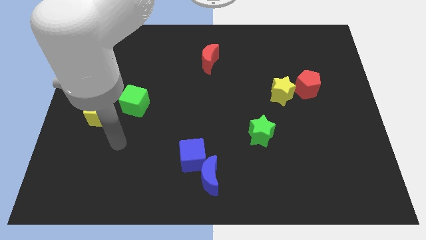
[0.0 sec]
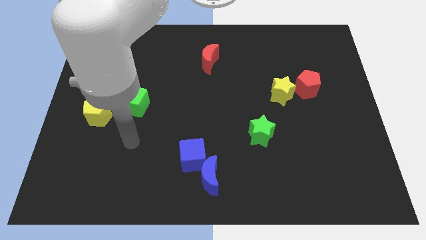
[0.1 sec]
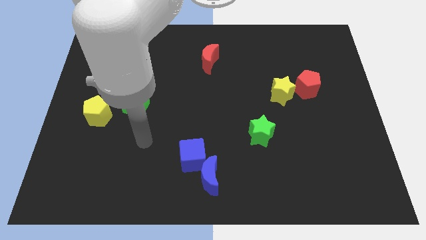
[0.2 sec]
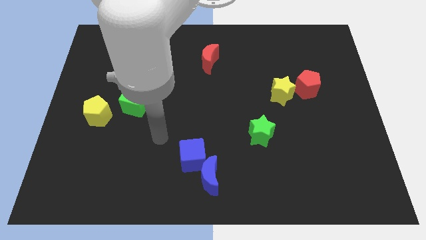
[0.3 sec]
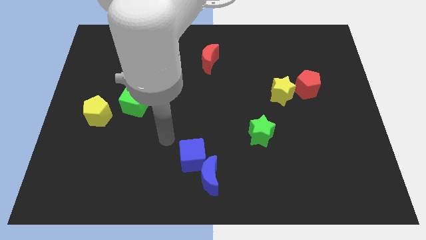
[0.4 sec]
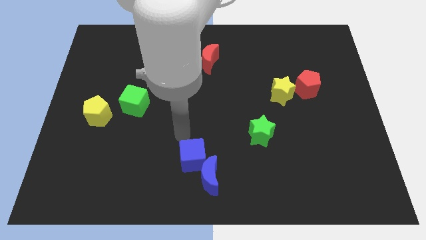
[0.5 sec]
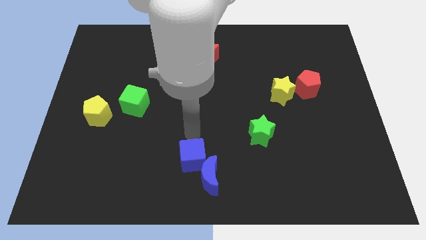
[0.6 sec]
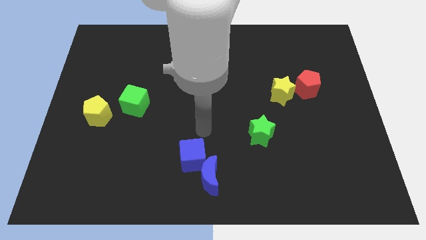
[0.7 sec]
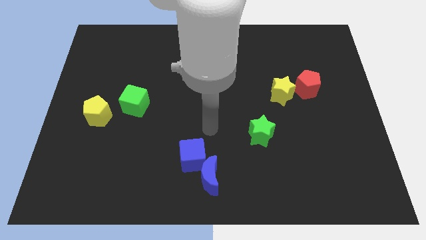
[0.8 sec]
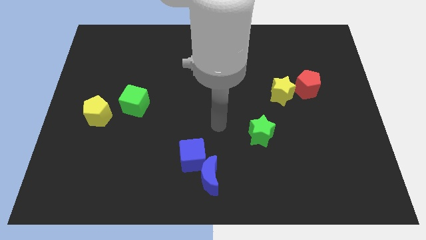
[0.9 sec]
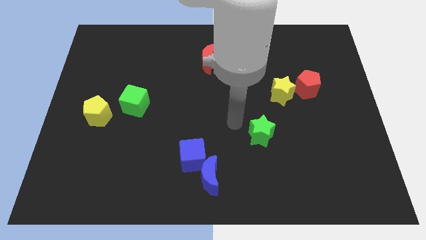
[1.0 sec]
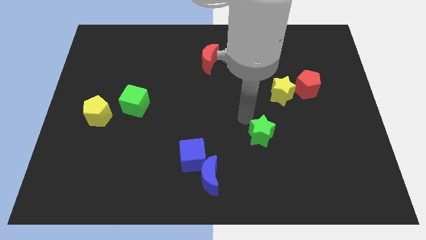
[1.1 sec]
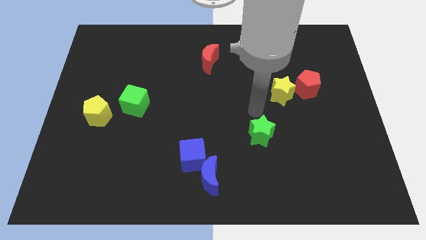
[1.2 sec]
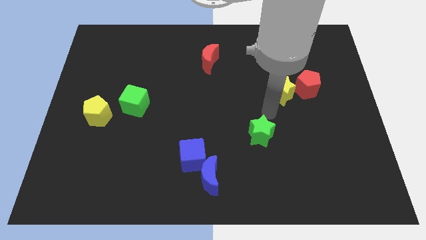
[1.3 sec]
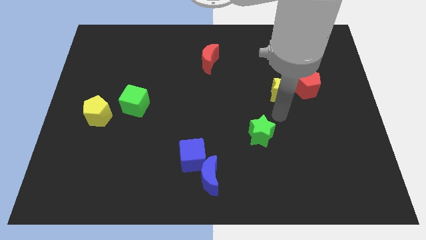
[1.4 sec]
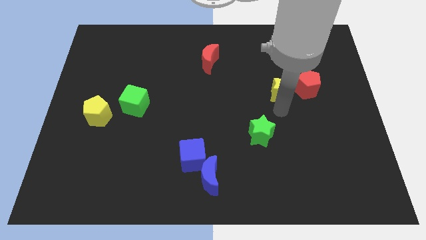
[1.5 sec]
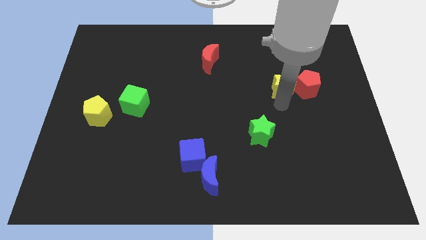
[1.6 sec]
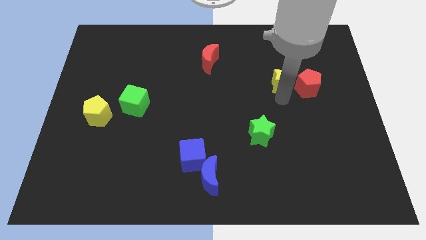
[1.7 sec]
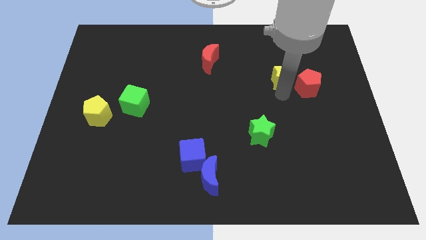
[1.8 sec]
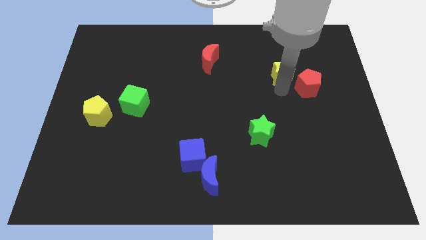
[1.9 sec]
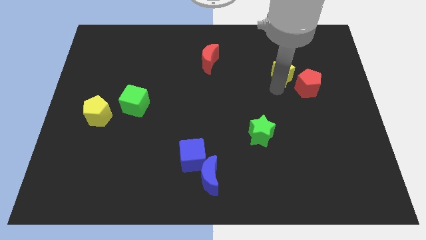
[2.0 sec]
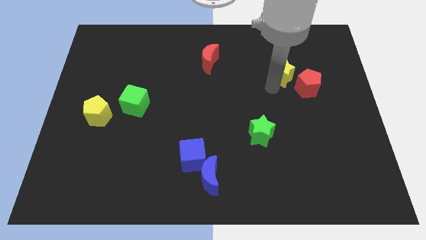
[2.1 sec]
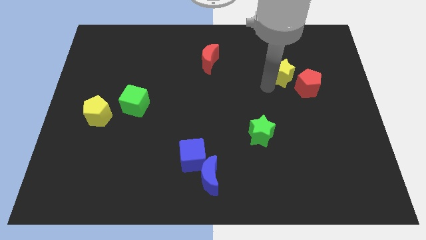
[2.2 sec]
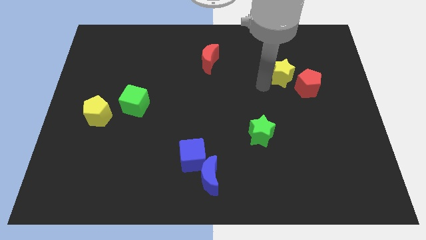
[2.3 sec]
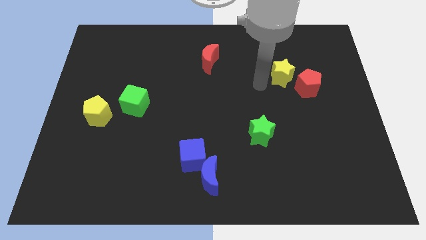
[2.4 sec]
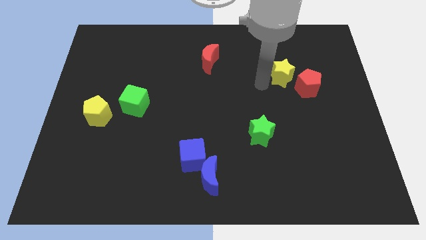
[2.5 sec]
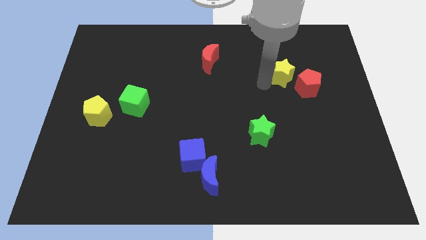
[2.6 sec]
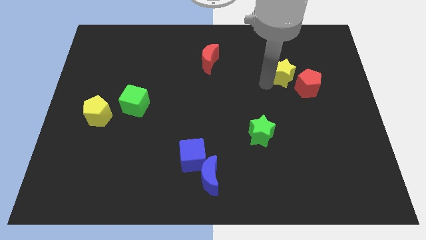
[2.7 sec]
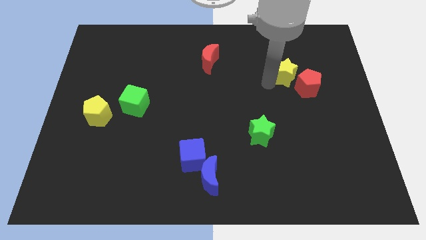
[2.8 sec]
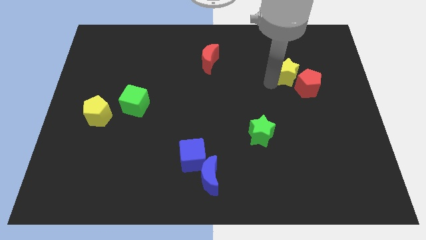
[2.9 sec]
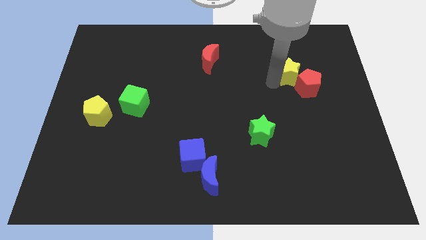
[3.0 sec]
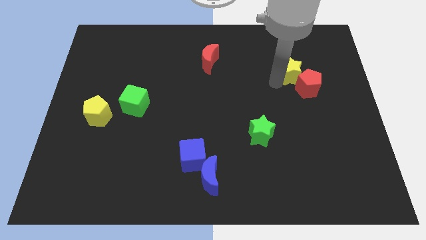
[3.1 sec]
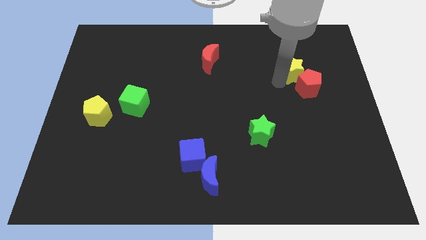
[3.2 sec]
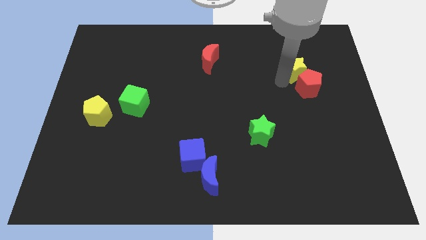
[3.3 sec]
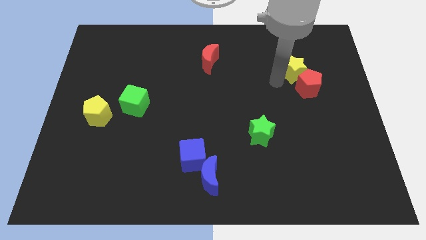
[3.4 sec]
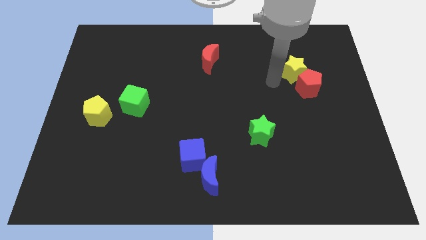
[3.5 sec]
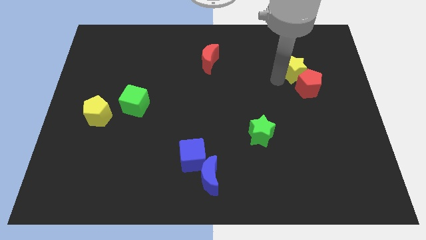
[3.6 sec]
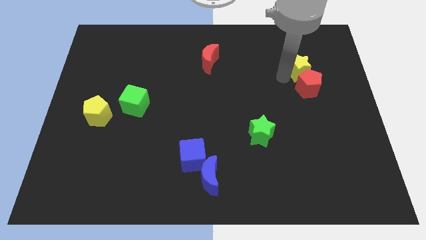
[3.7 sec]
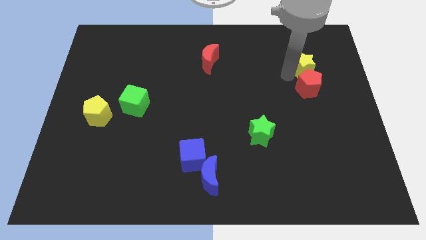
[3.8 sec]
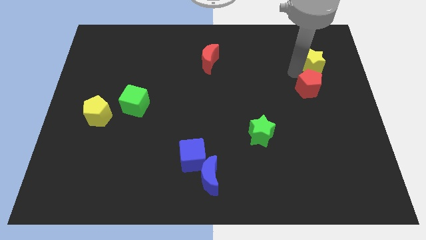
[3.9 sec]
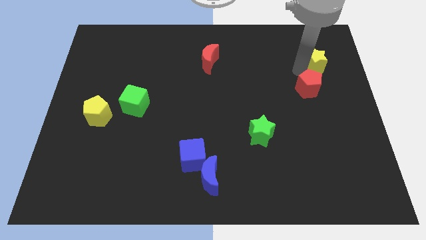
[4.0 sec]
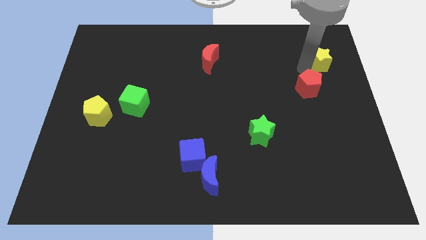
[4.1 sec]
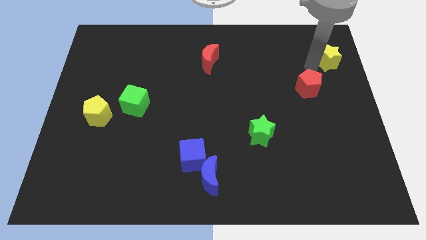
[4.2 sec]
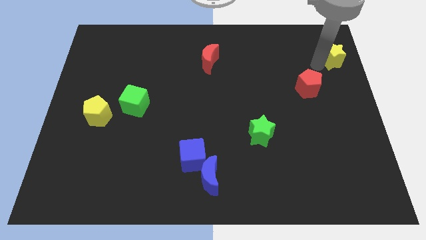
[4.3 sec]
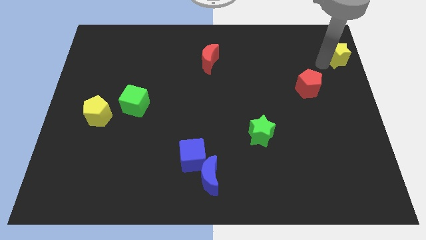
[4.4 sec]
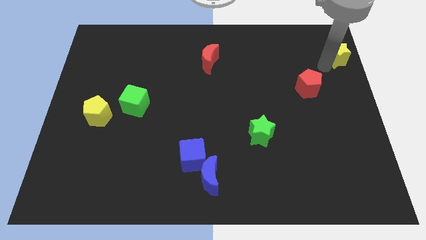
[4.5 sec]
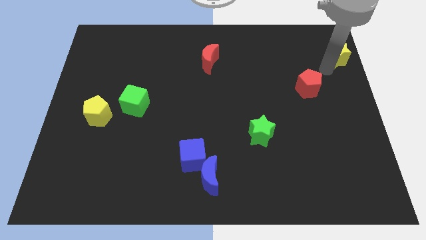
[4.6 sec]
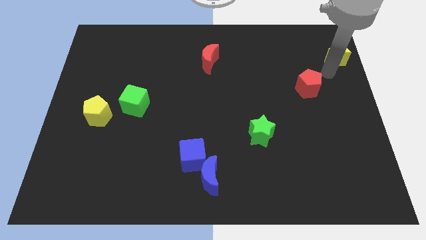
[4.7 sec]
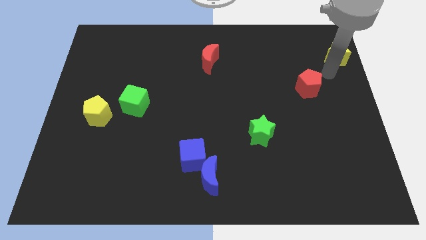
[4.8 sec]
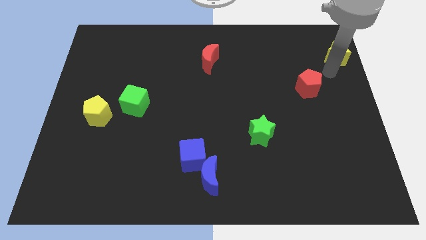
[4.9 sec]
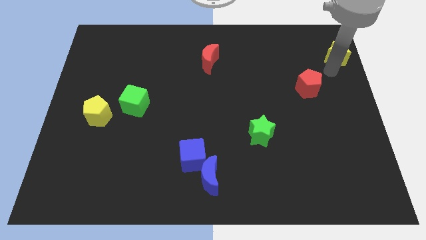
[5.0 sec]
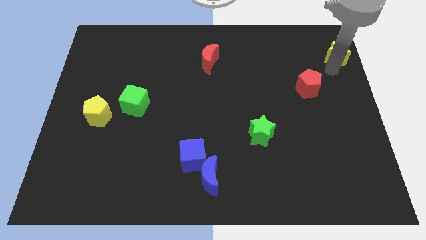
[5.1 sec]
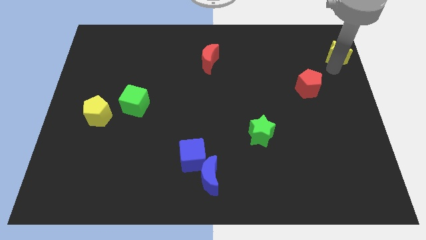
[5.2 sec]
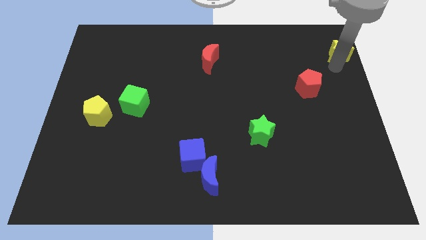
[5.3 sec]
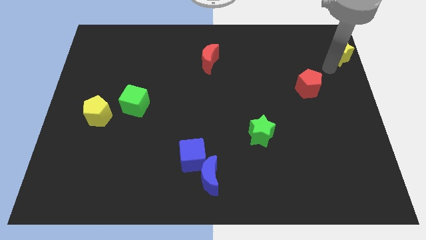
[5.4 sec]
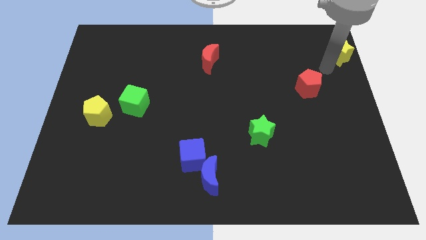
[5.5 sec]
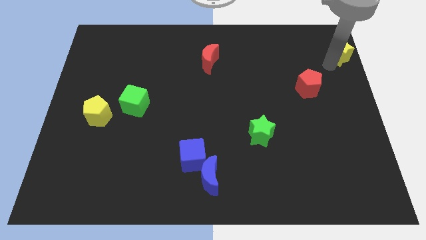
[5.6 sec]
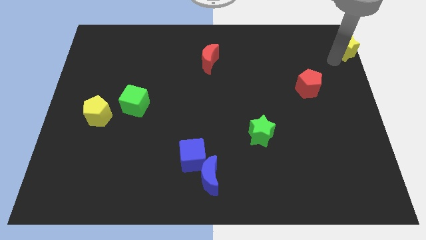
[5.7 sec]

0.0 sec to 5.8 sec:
move the yellow star to the top right of the board

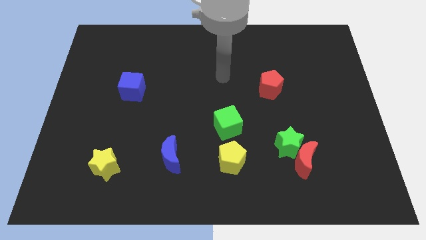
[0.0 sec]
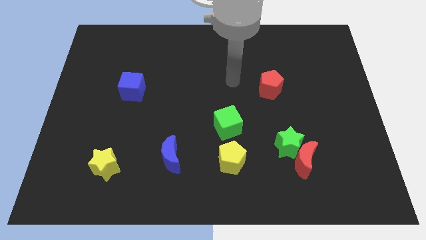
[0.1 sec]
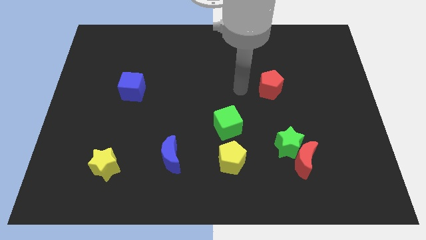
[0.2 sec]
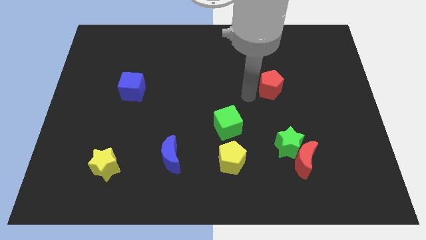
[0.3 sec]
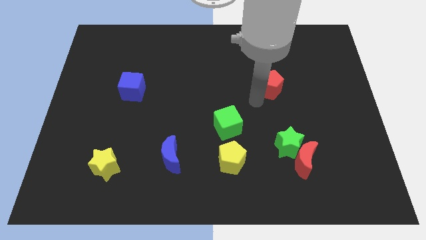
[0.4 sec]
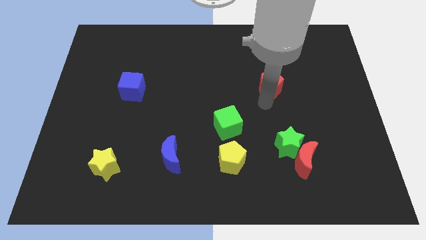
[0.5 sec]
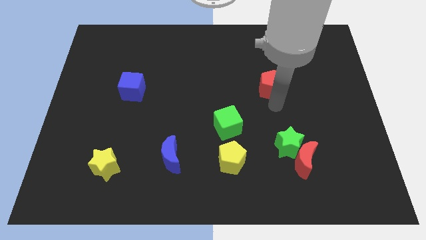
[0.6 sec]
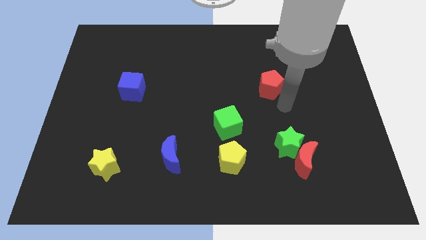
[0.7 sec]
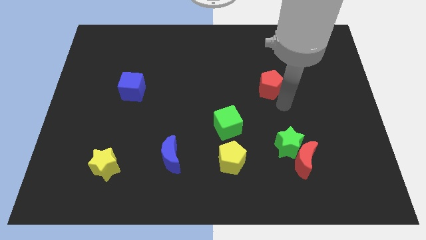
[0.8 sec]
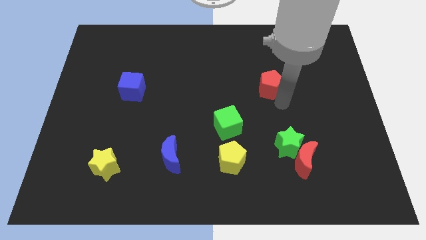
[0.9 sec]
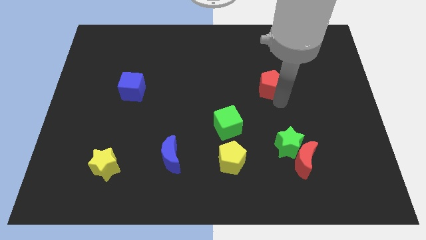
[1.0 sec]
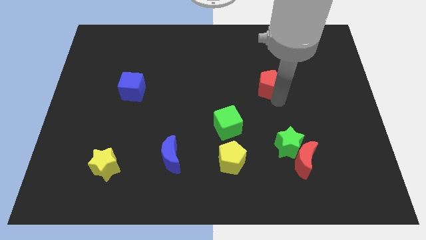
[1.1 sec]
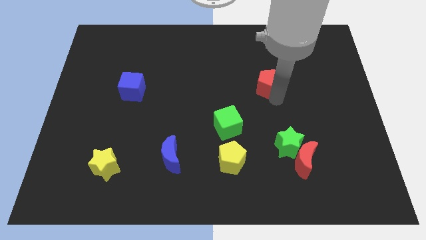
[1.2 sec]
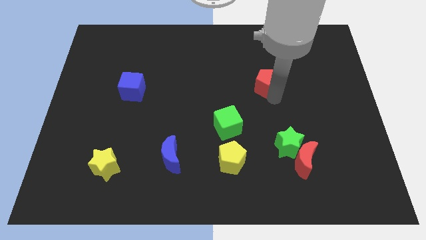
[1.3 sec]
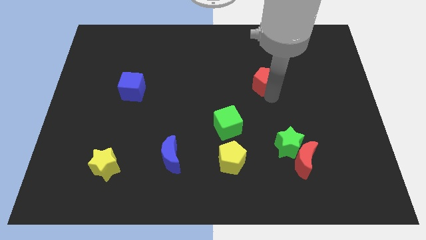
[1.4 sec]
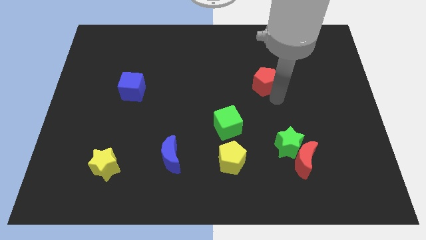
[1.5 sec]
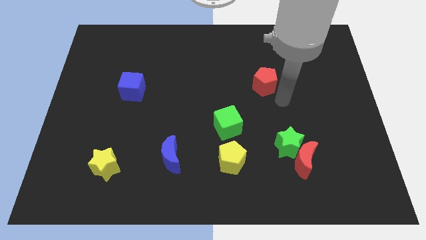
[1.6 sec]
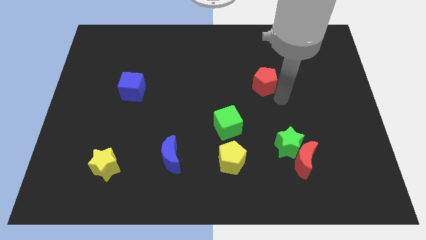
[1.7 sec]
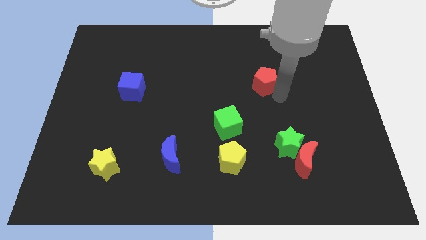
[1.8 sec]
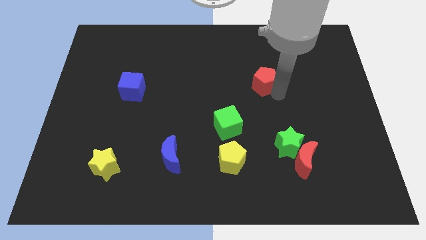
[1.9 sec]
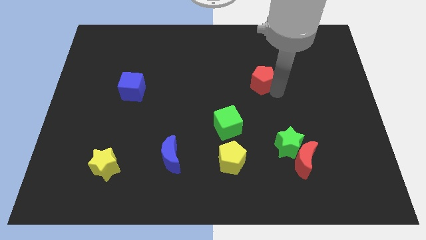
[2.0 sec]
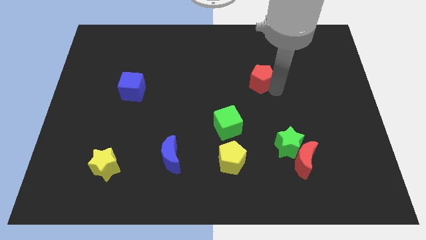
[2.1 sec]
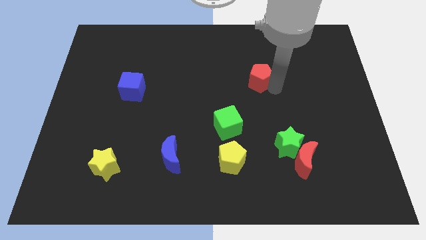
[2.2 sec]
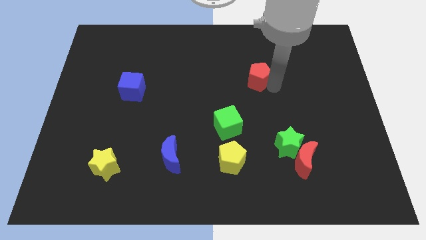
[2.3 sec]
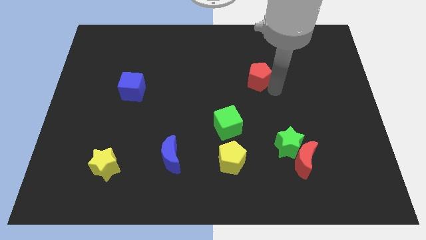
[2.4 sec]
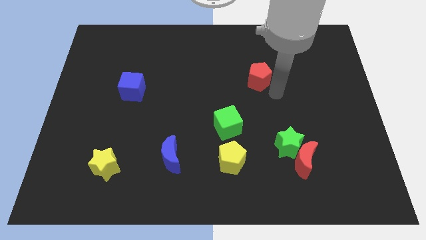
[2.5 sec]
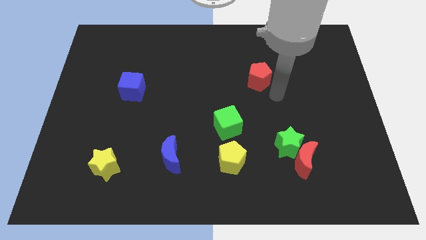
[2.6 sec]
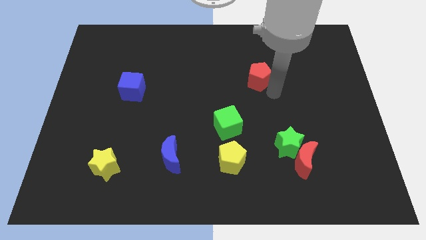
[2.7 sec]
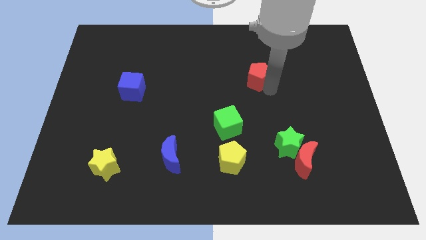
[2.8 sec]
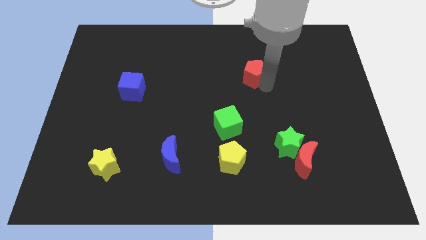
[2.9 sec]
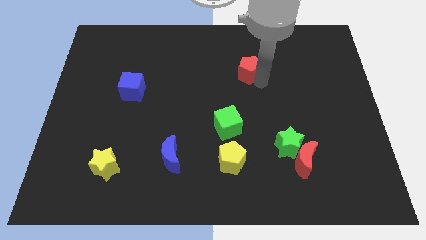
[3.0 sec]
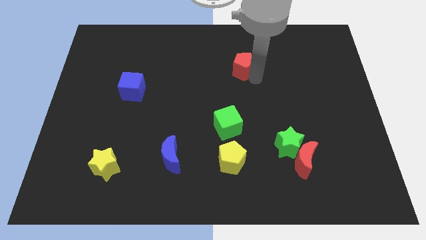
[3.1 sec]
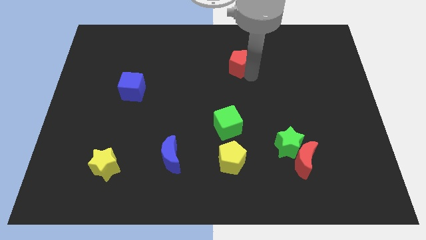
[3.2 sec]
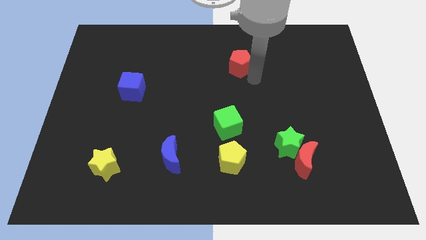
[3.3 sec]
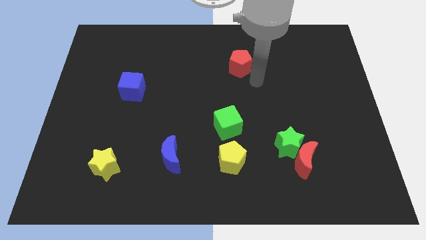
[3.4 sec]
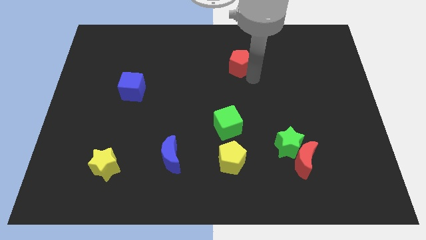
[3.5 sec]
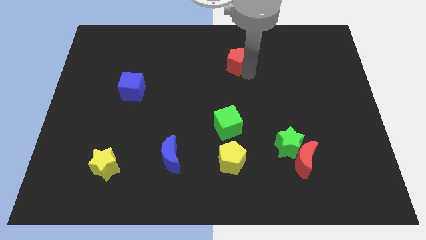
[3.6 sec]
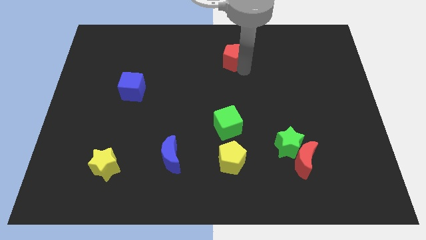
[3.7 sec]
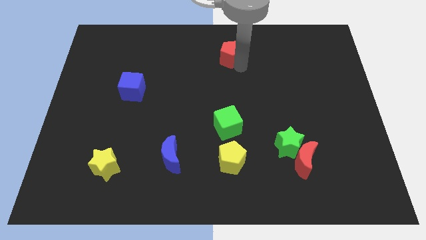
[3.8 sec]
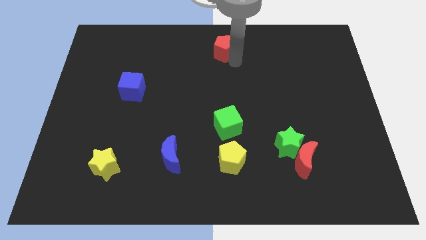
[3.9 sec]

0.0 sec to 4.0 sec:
put the red pentagon to the top side
